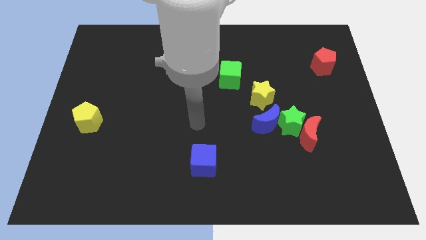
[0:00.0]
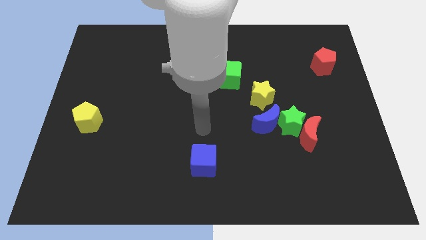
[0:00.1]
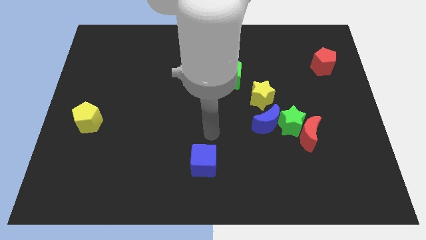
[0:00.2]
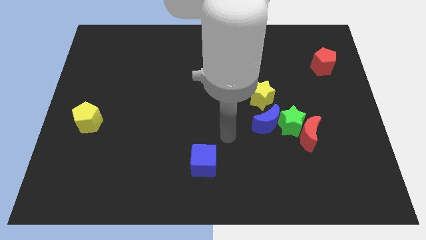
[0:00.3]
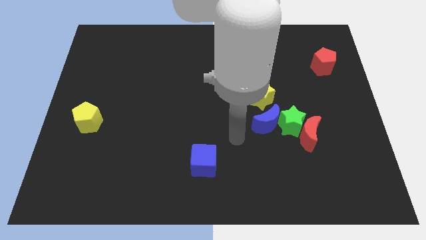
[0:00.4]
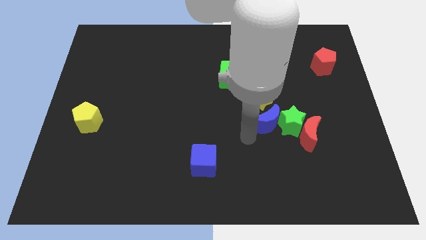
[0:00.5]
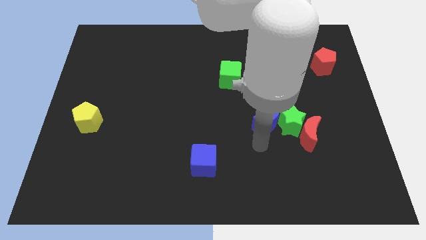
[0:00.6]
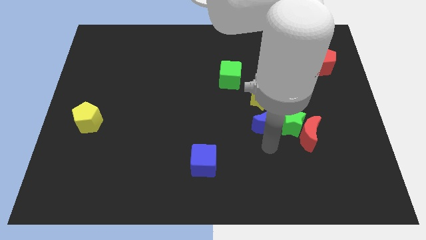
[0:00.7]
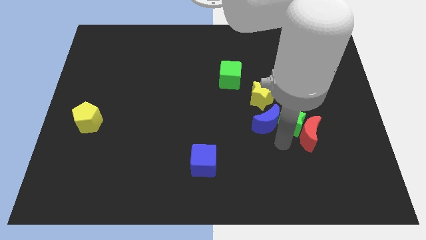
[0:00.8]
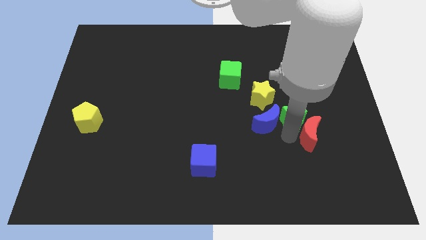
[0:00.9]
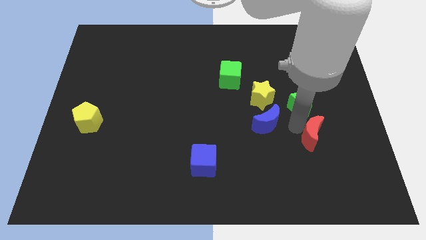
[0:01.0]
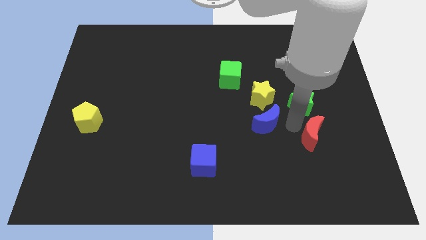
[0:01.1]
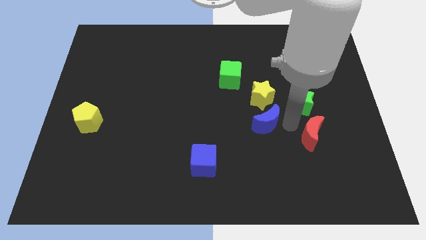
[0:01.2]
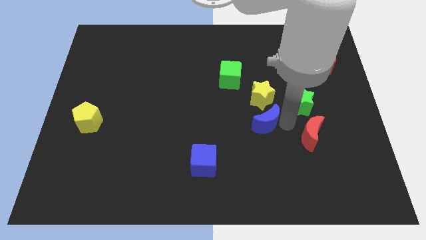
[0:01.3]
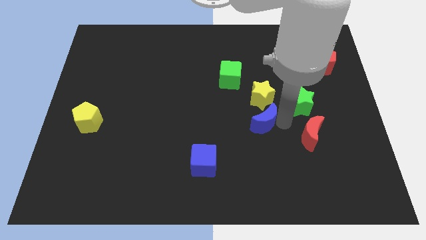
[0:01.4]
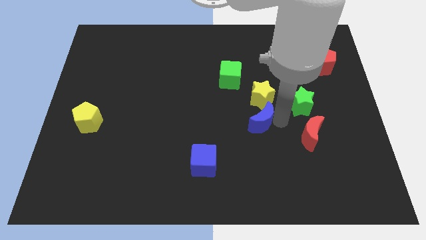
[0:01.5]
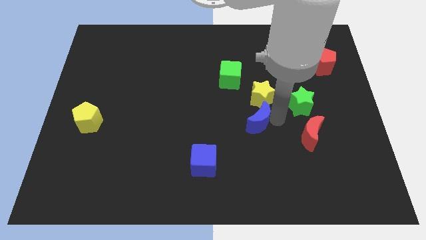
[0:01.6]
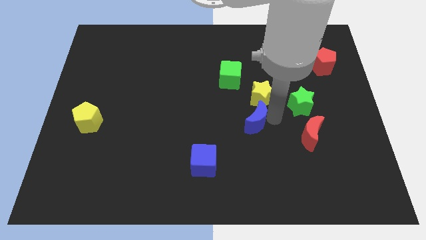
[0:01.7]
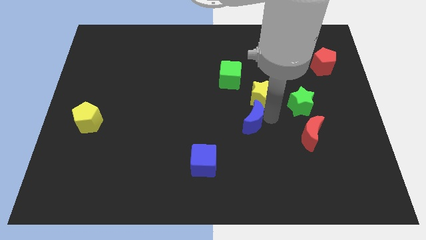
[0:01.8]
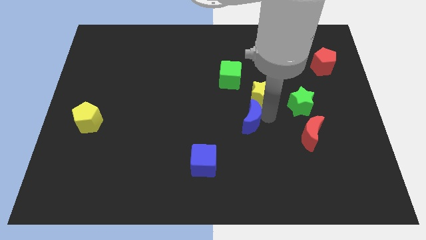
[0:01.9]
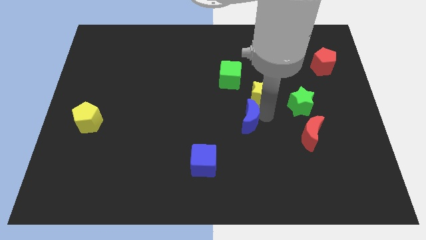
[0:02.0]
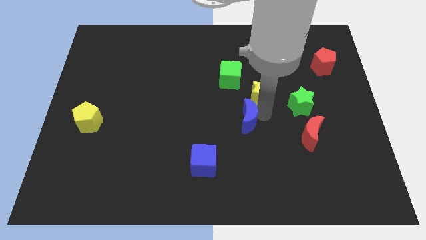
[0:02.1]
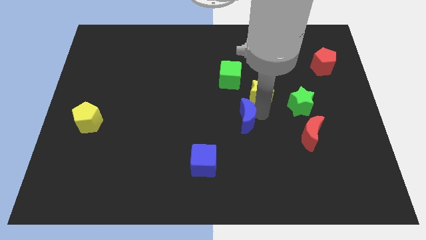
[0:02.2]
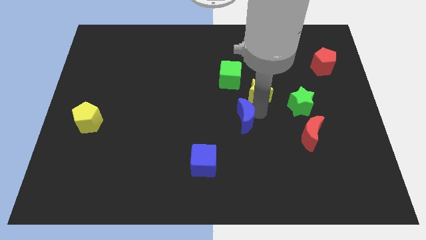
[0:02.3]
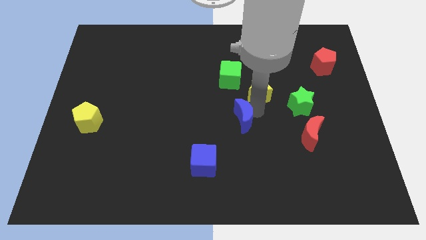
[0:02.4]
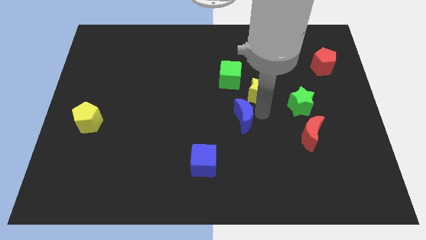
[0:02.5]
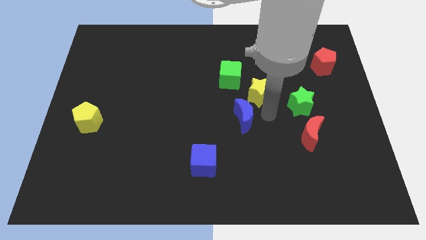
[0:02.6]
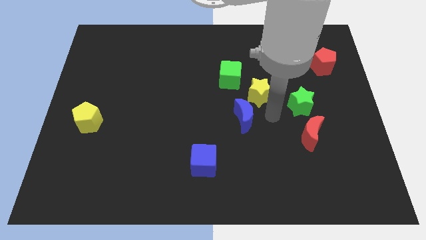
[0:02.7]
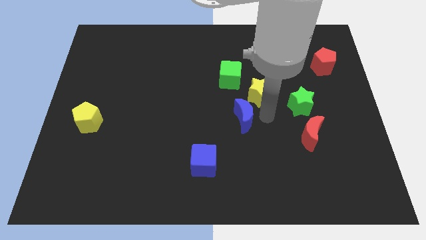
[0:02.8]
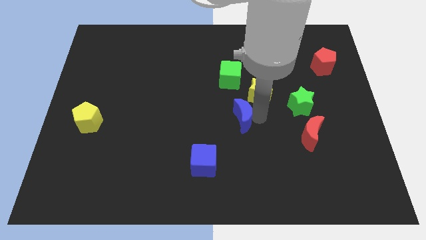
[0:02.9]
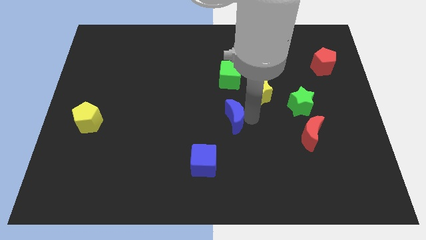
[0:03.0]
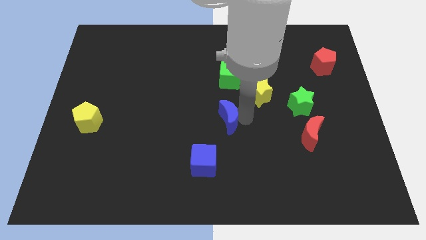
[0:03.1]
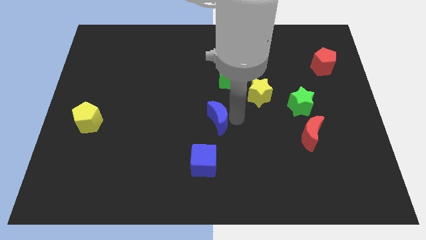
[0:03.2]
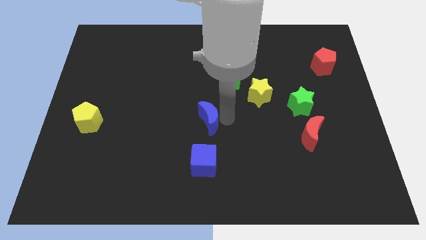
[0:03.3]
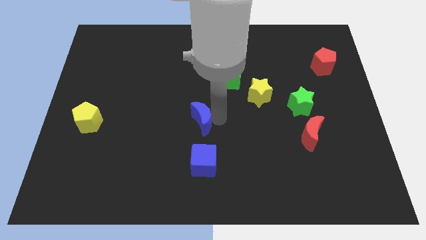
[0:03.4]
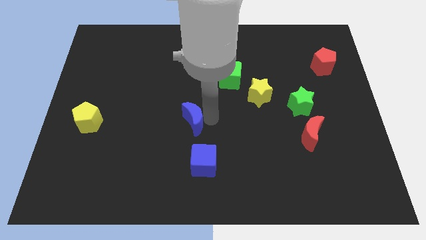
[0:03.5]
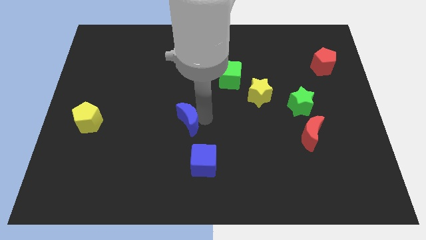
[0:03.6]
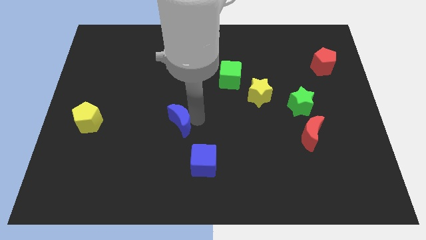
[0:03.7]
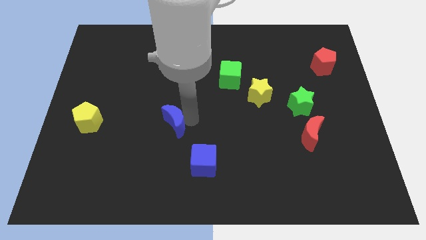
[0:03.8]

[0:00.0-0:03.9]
move the blue moon to the left

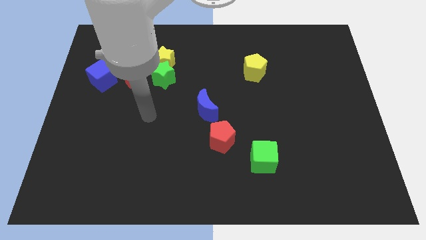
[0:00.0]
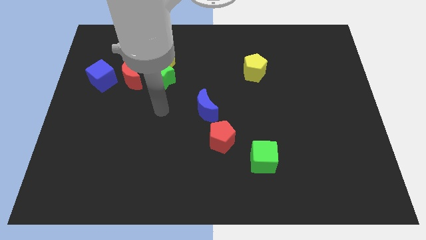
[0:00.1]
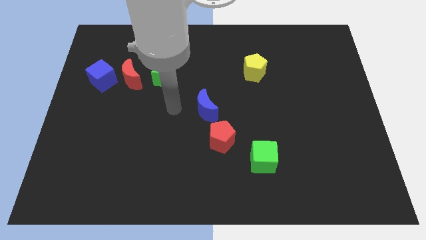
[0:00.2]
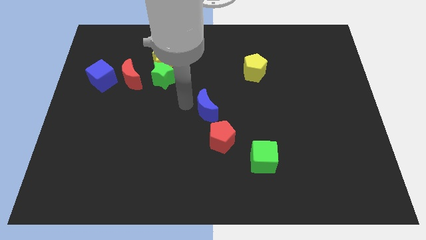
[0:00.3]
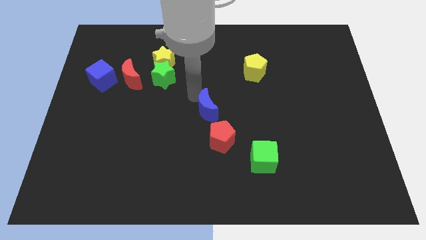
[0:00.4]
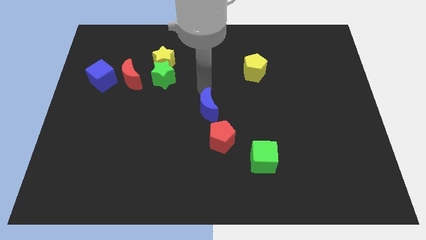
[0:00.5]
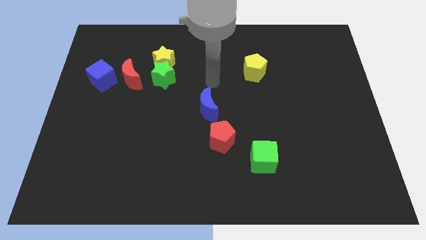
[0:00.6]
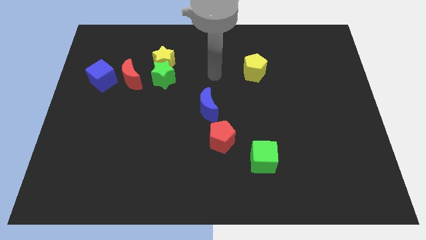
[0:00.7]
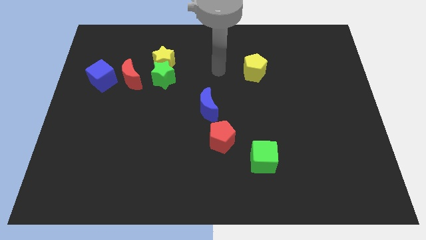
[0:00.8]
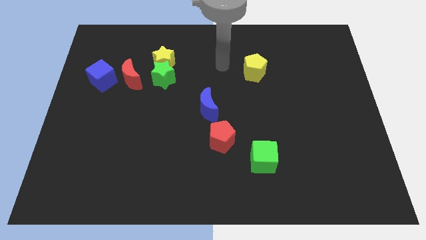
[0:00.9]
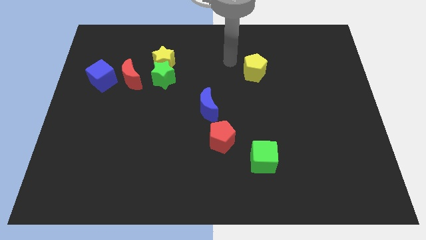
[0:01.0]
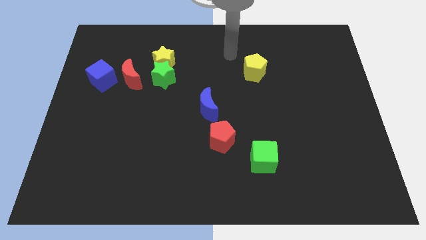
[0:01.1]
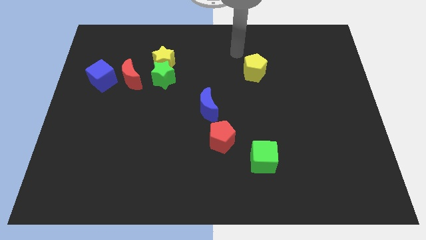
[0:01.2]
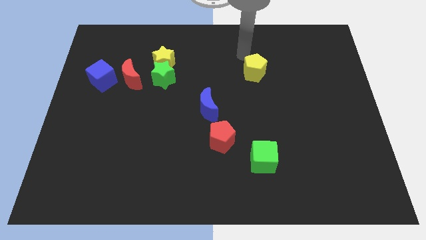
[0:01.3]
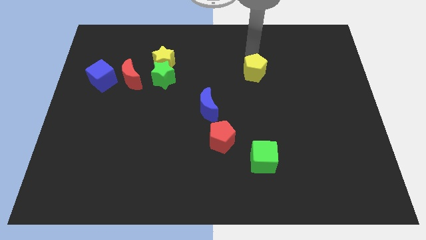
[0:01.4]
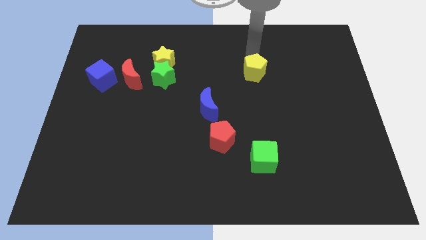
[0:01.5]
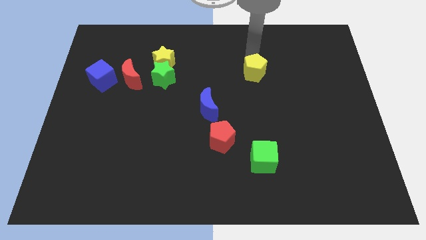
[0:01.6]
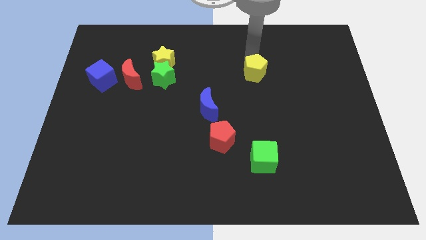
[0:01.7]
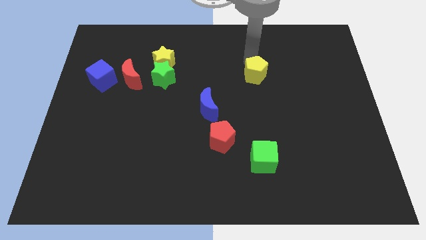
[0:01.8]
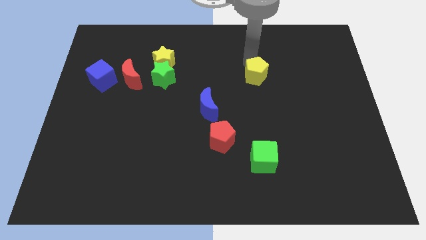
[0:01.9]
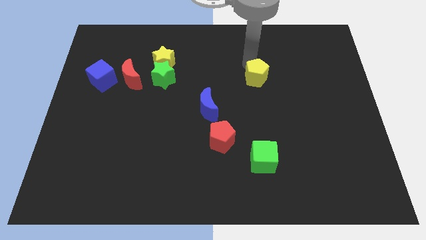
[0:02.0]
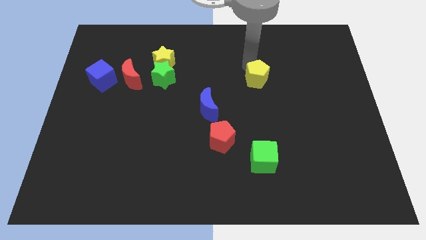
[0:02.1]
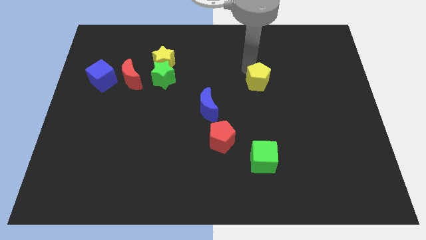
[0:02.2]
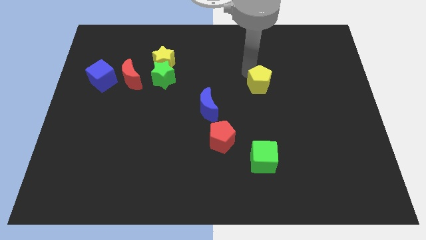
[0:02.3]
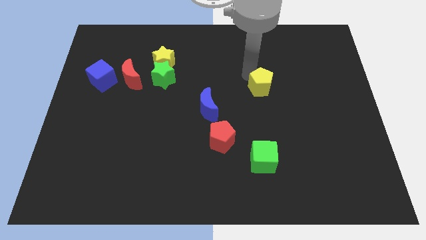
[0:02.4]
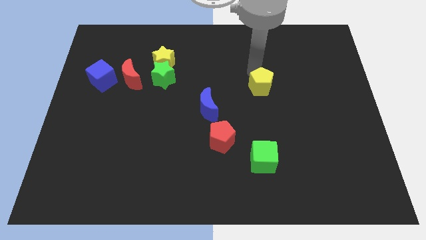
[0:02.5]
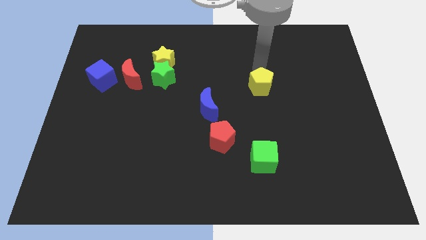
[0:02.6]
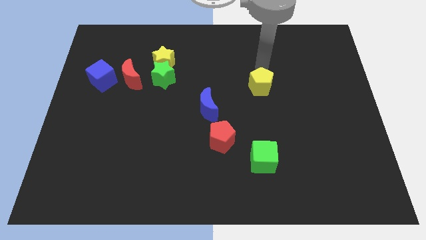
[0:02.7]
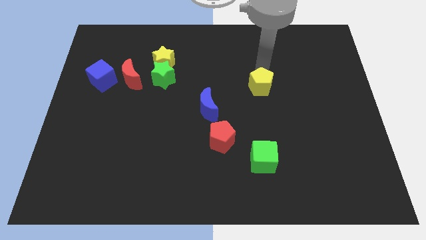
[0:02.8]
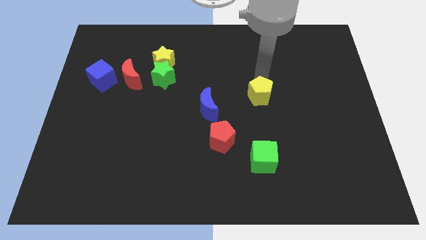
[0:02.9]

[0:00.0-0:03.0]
push the yellow pentagon slightly down

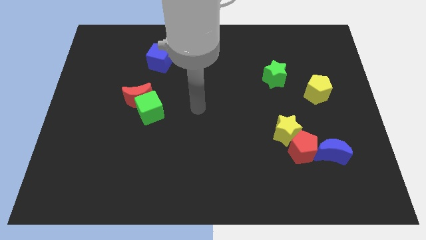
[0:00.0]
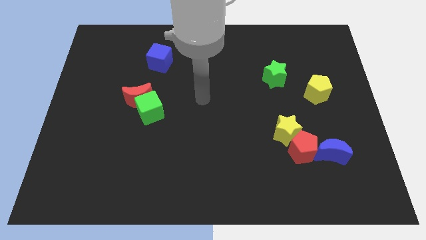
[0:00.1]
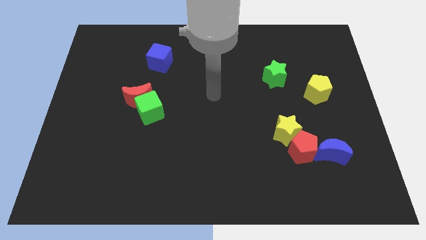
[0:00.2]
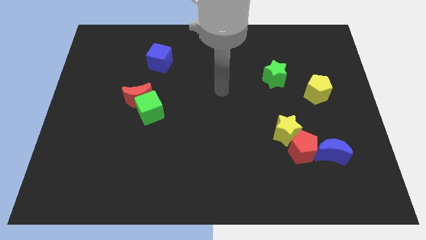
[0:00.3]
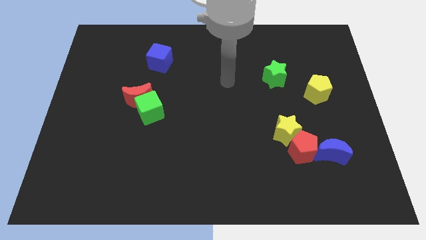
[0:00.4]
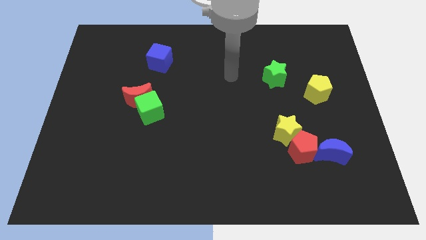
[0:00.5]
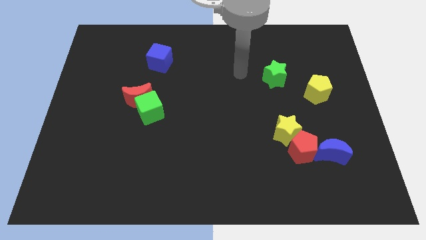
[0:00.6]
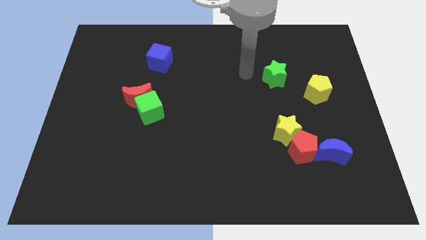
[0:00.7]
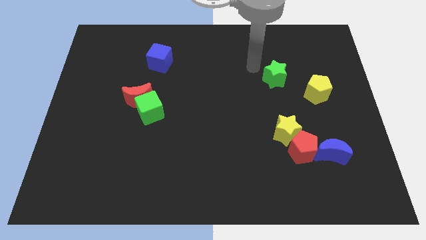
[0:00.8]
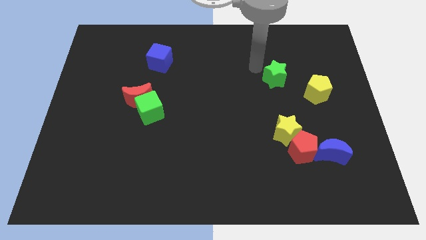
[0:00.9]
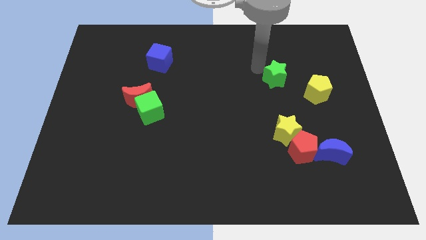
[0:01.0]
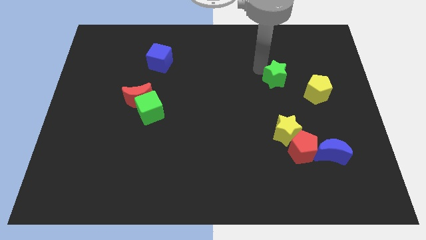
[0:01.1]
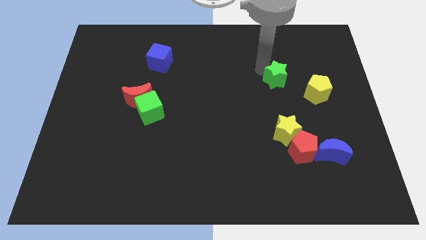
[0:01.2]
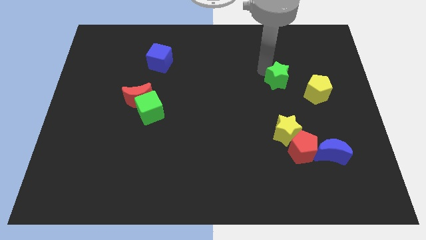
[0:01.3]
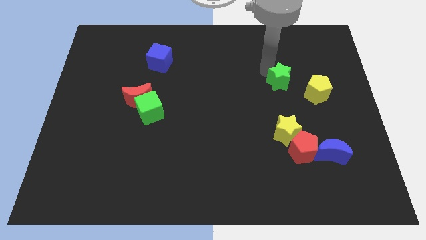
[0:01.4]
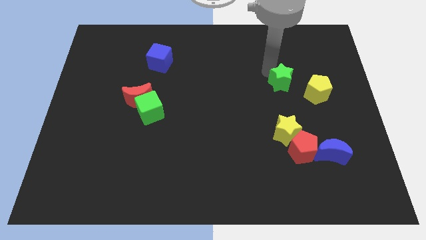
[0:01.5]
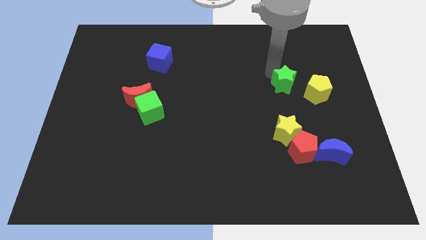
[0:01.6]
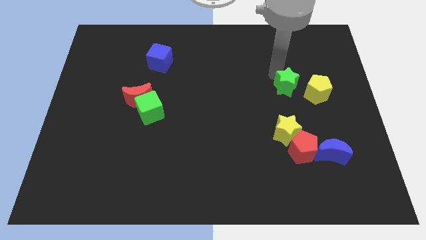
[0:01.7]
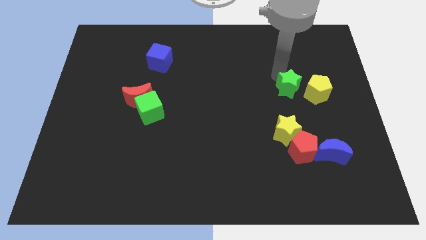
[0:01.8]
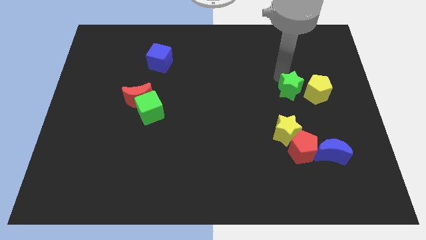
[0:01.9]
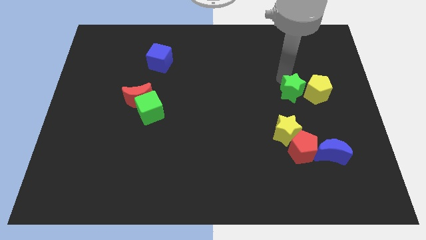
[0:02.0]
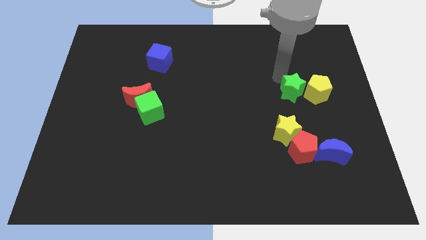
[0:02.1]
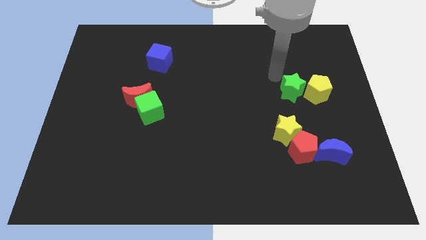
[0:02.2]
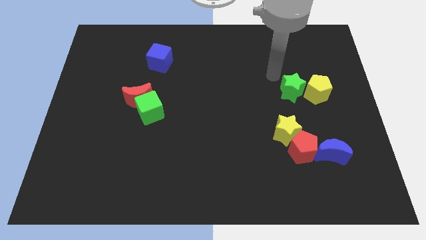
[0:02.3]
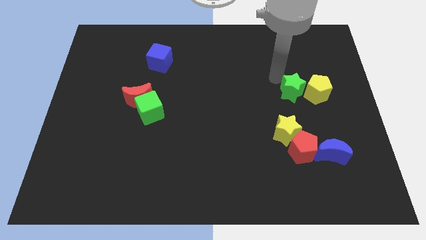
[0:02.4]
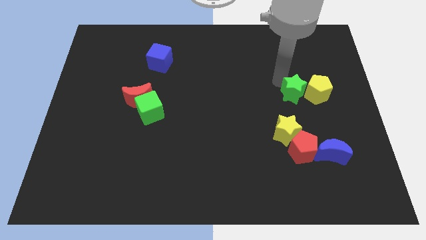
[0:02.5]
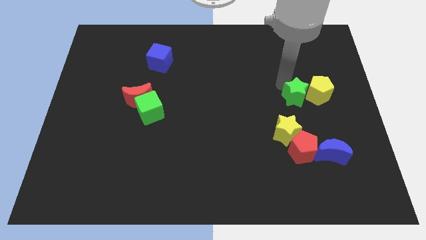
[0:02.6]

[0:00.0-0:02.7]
move the green star diagonally downwards and to the right a little bit
